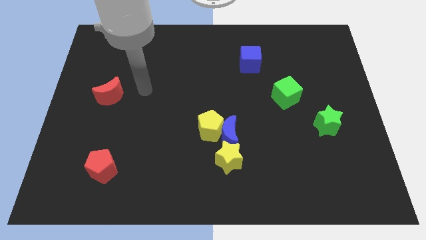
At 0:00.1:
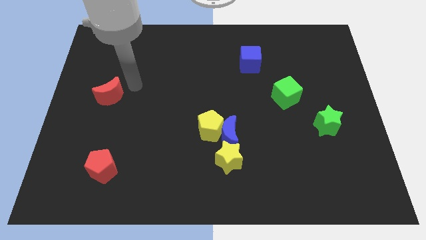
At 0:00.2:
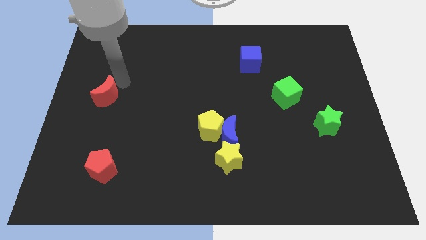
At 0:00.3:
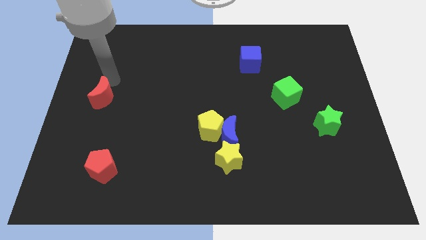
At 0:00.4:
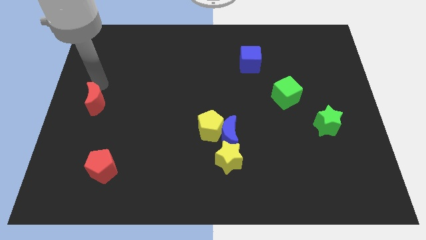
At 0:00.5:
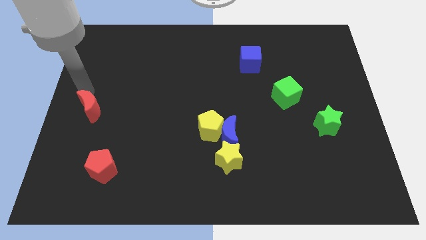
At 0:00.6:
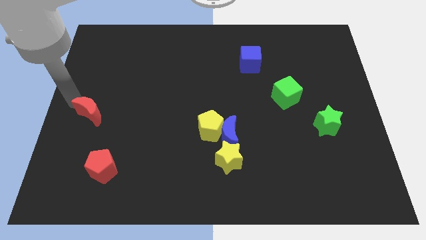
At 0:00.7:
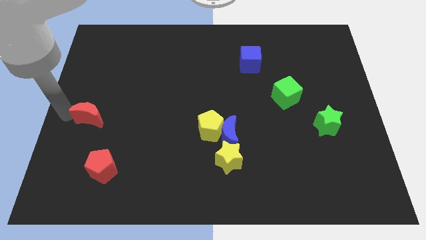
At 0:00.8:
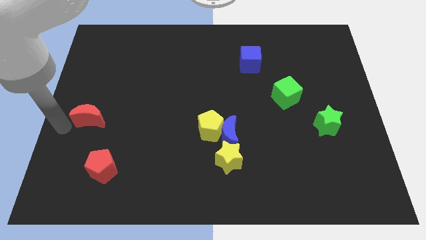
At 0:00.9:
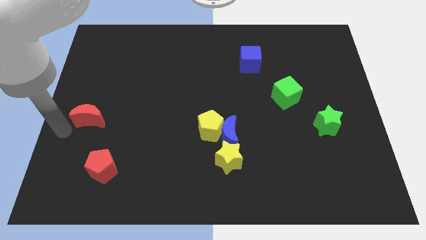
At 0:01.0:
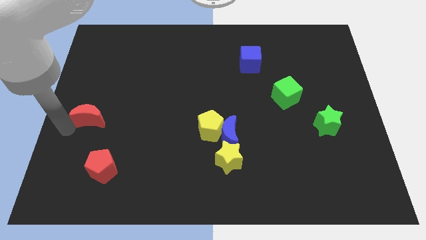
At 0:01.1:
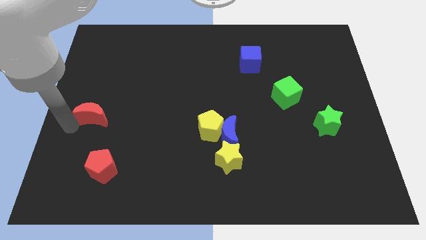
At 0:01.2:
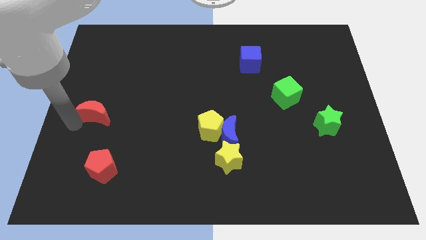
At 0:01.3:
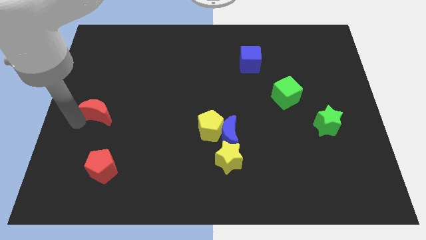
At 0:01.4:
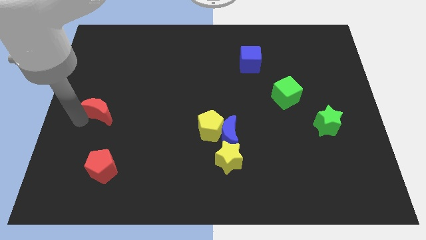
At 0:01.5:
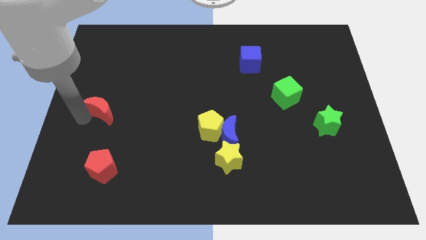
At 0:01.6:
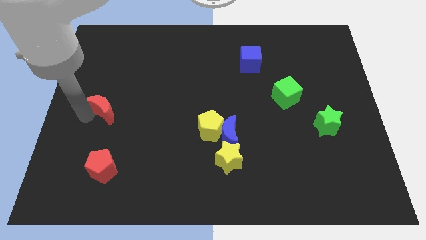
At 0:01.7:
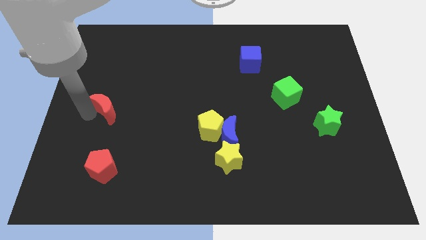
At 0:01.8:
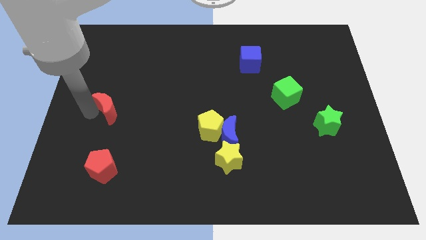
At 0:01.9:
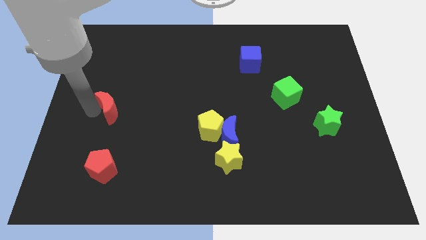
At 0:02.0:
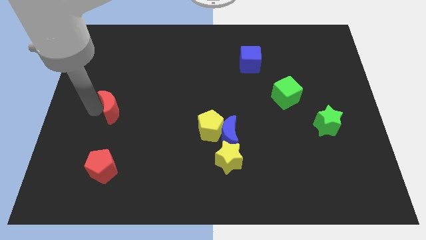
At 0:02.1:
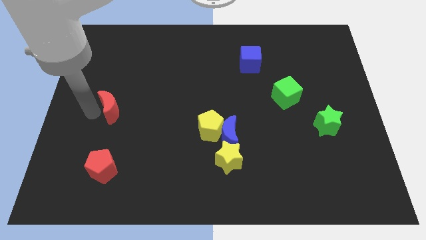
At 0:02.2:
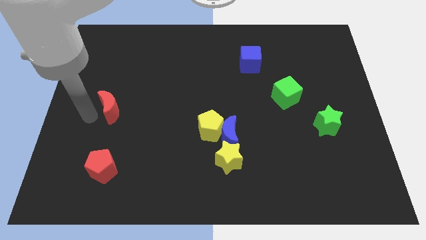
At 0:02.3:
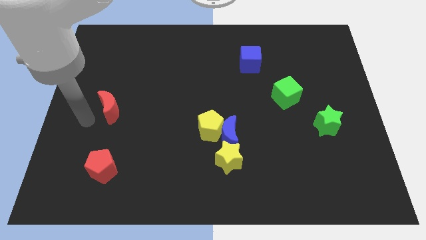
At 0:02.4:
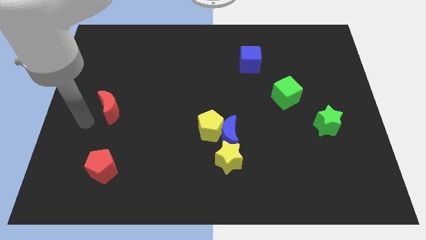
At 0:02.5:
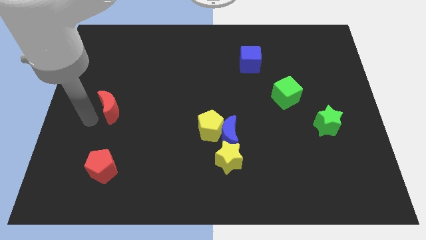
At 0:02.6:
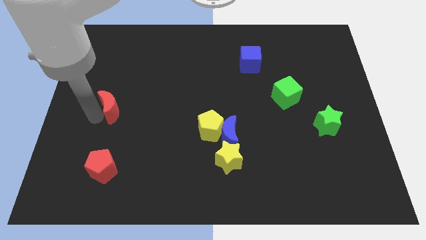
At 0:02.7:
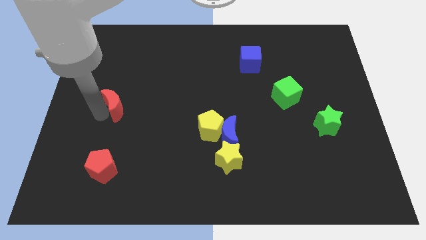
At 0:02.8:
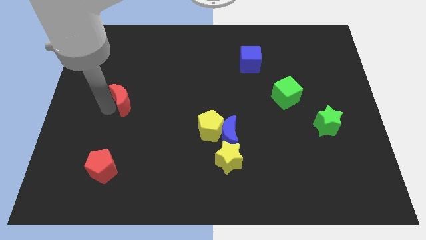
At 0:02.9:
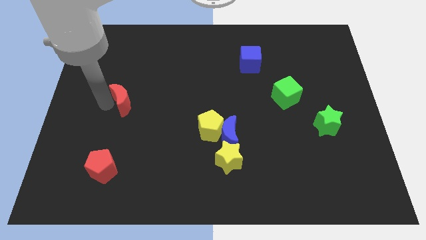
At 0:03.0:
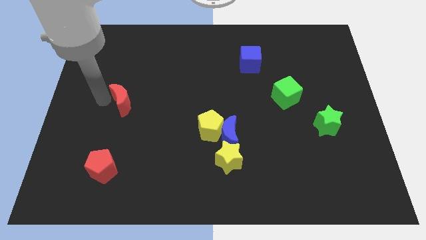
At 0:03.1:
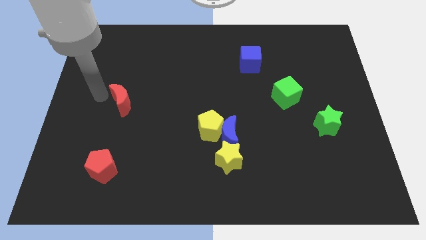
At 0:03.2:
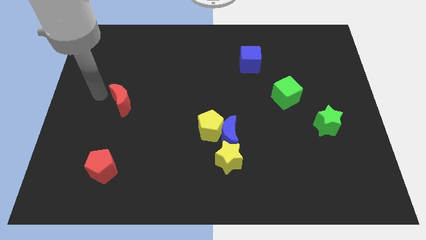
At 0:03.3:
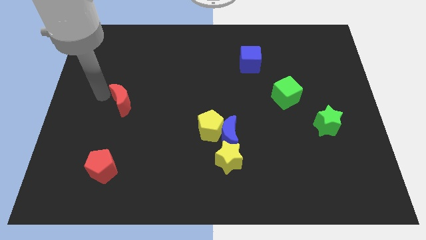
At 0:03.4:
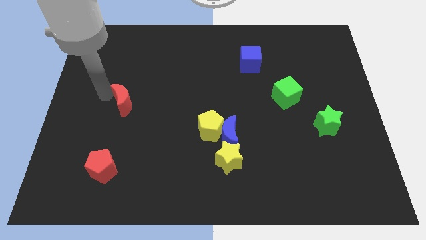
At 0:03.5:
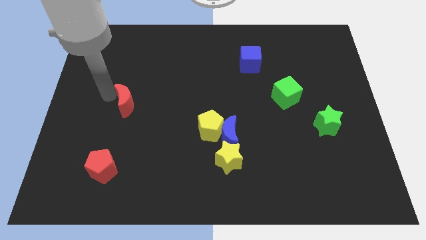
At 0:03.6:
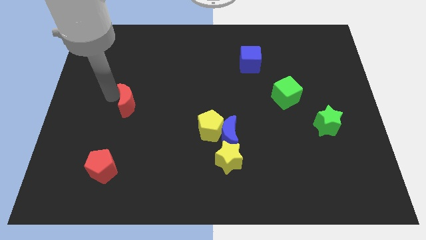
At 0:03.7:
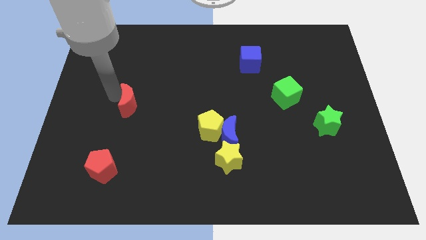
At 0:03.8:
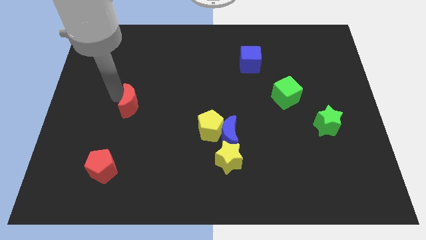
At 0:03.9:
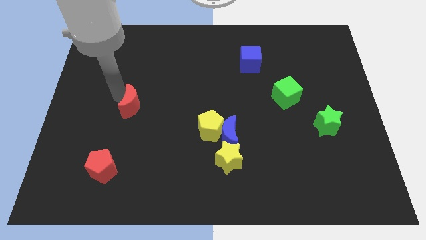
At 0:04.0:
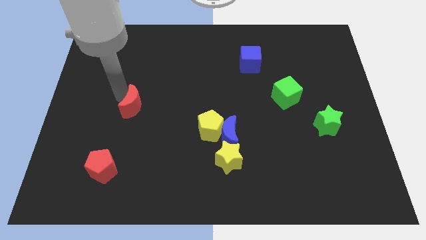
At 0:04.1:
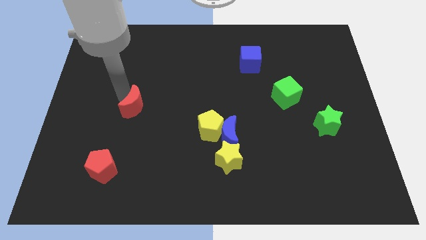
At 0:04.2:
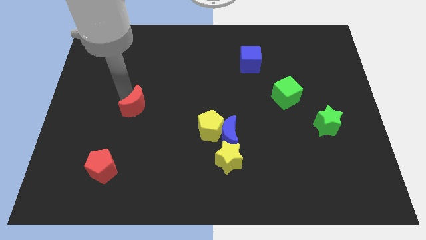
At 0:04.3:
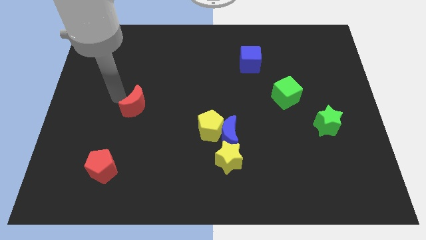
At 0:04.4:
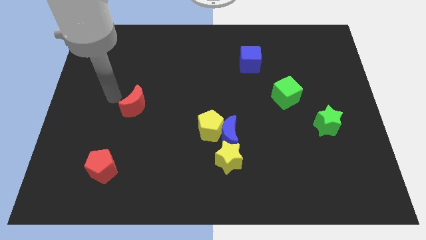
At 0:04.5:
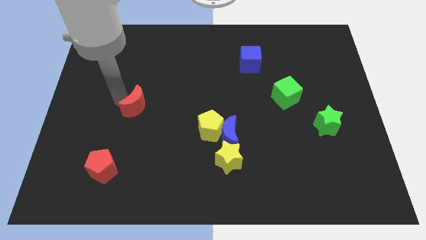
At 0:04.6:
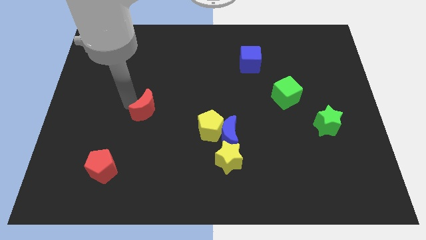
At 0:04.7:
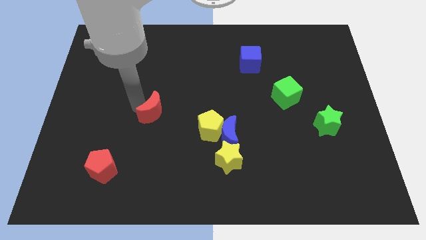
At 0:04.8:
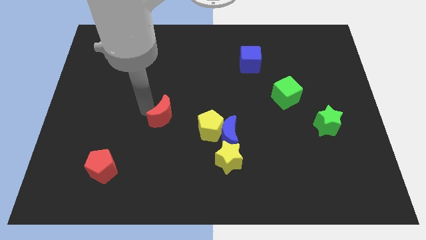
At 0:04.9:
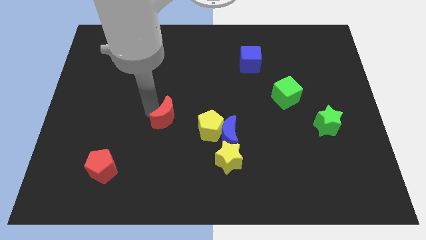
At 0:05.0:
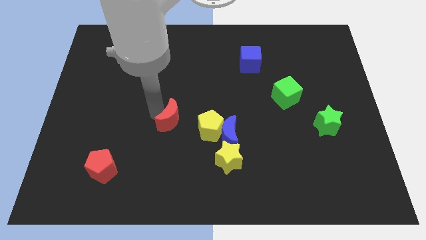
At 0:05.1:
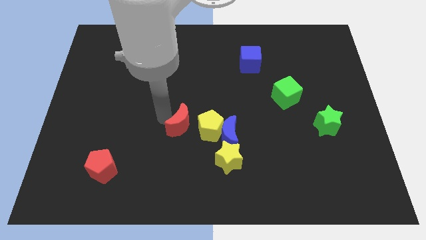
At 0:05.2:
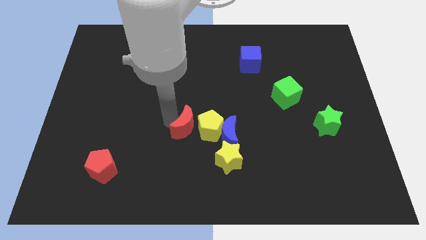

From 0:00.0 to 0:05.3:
slide the red moon next to the yellow pentagon

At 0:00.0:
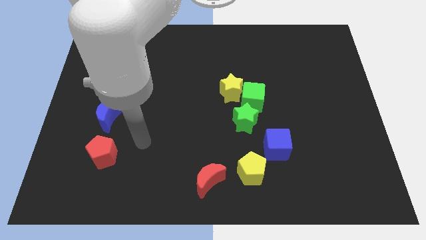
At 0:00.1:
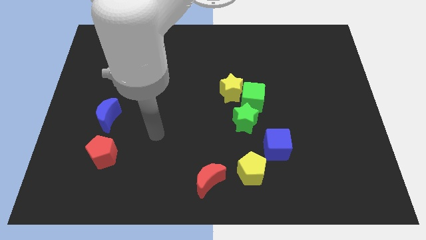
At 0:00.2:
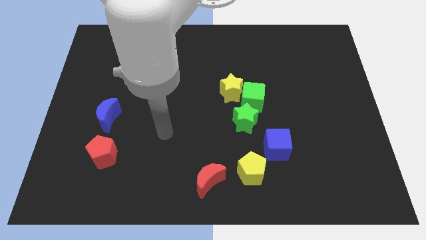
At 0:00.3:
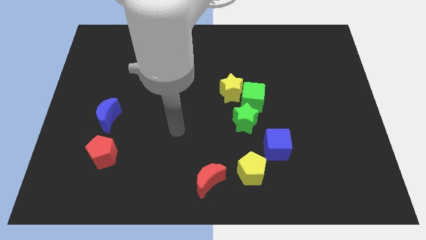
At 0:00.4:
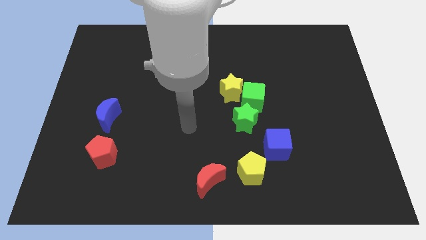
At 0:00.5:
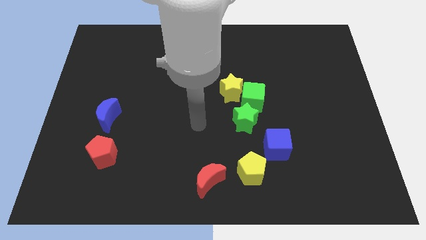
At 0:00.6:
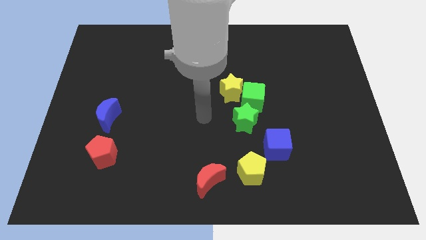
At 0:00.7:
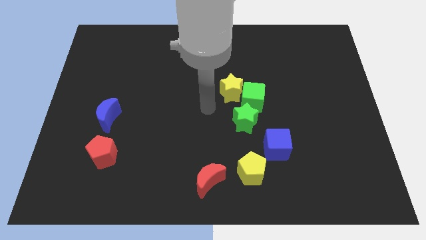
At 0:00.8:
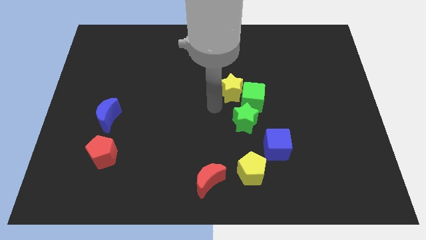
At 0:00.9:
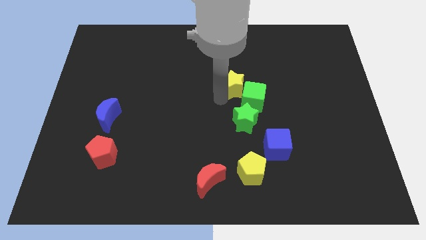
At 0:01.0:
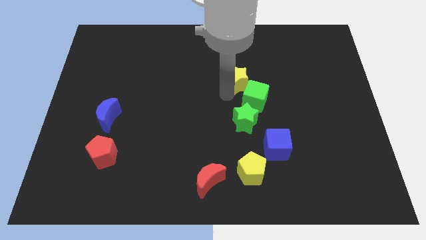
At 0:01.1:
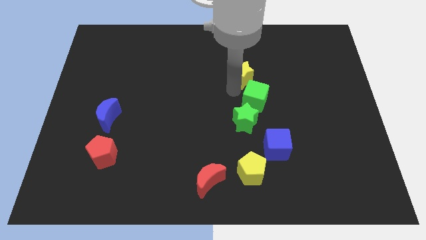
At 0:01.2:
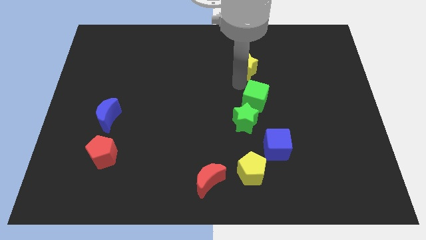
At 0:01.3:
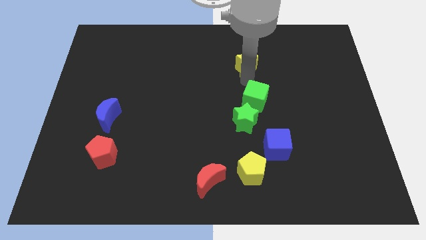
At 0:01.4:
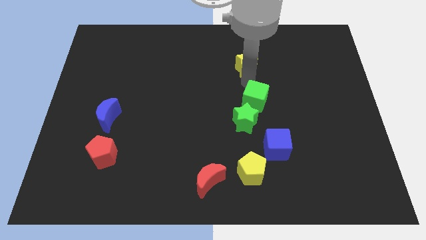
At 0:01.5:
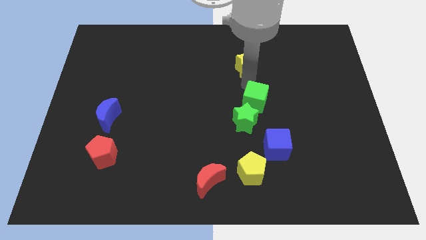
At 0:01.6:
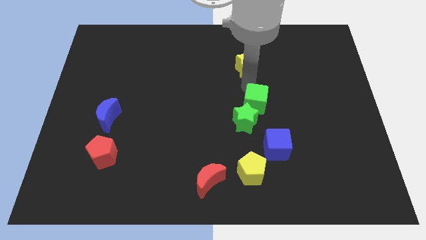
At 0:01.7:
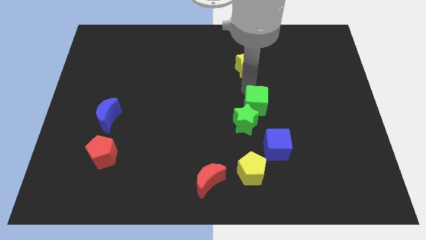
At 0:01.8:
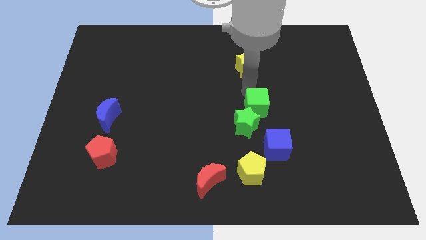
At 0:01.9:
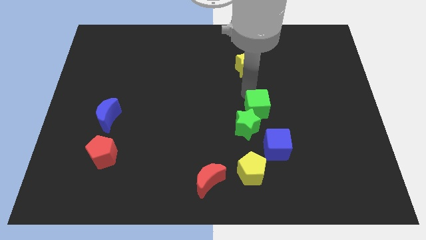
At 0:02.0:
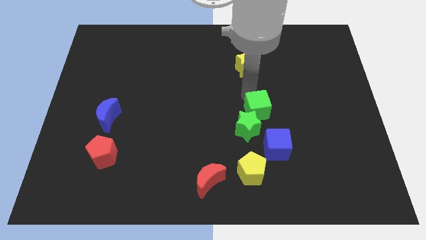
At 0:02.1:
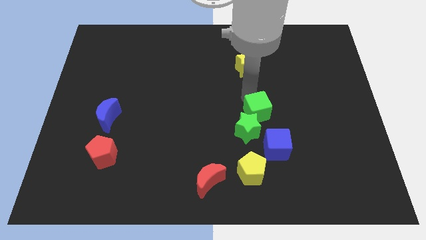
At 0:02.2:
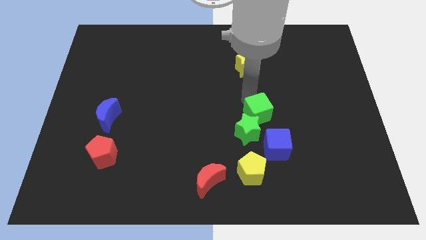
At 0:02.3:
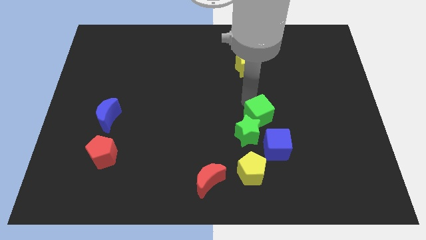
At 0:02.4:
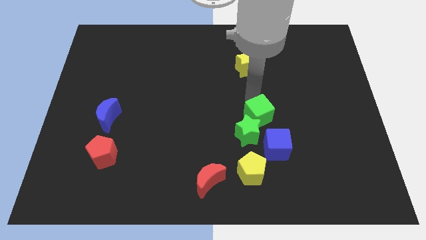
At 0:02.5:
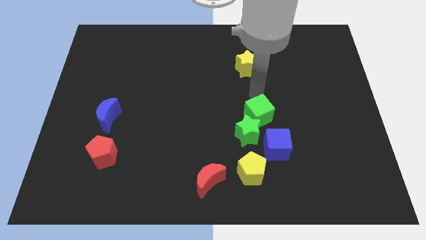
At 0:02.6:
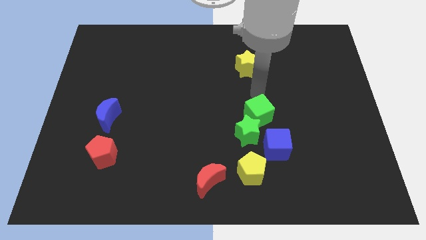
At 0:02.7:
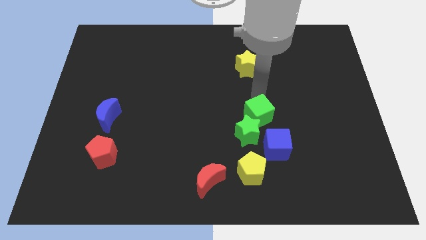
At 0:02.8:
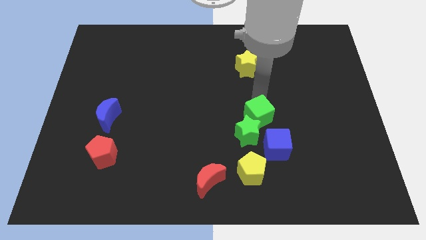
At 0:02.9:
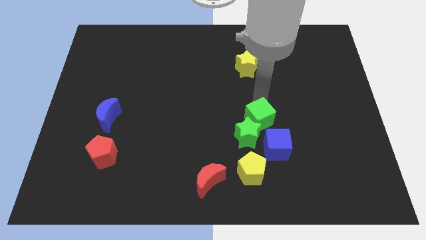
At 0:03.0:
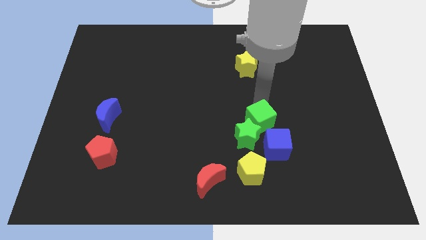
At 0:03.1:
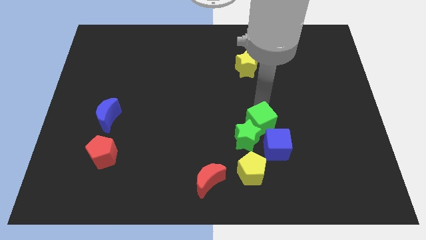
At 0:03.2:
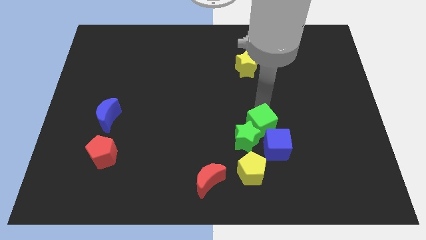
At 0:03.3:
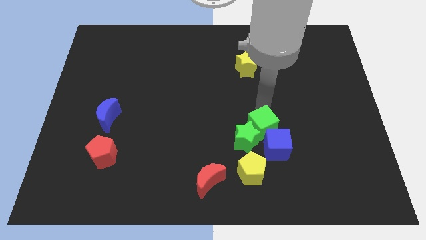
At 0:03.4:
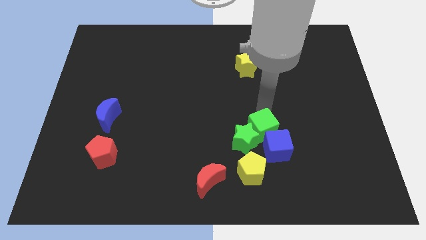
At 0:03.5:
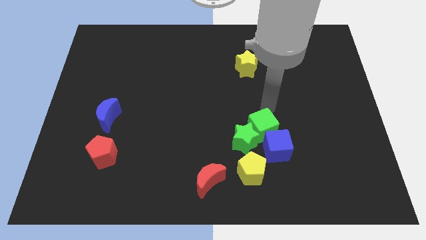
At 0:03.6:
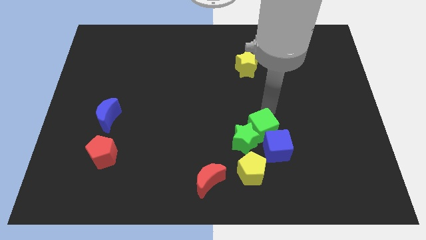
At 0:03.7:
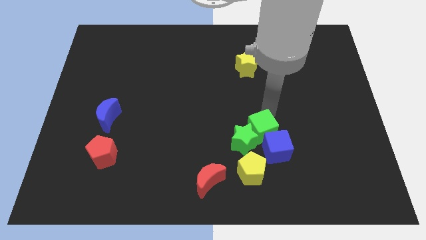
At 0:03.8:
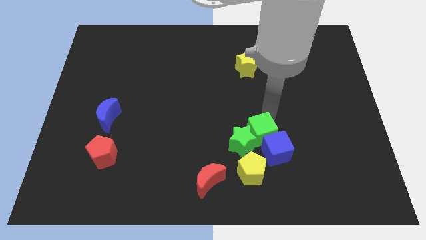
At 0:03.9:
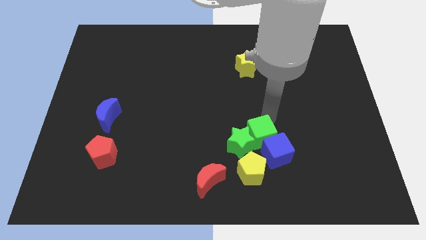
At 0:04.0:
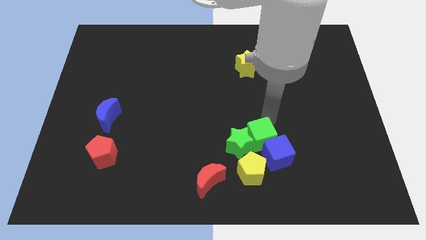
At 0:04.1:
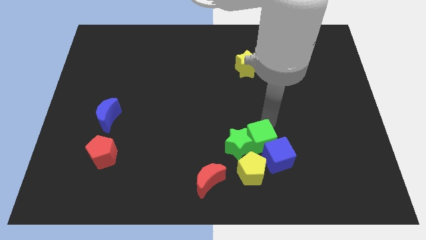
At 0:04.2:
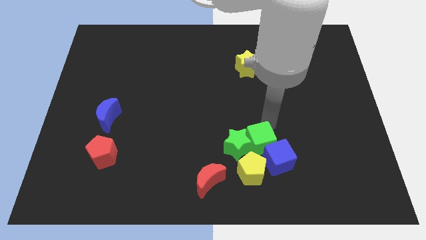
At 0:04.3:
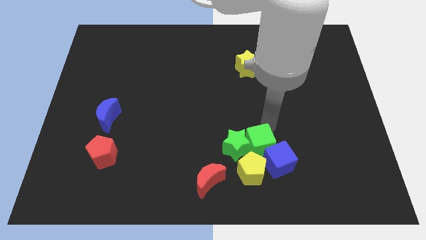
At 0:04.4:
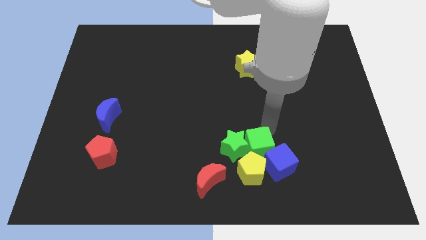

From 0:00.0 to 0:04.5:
move the green cube towards the yellow pentagon
